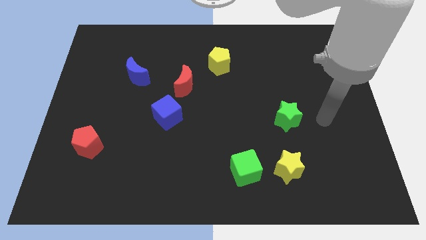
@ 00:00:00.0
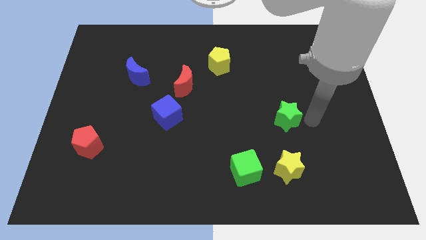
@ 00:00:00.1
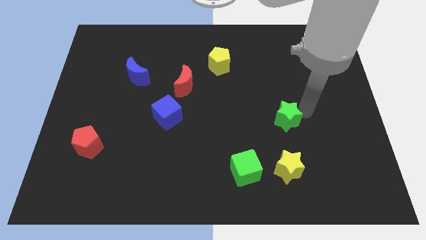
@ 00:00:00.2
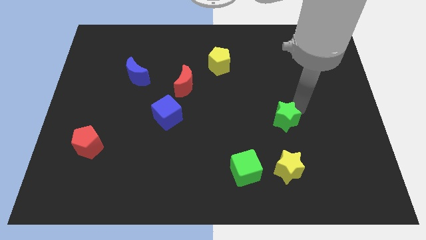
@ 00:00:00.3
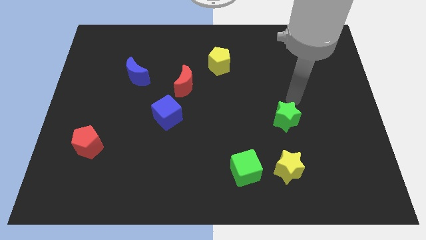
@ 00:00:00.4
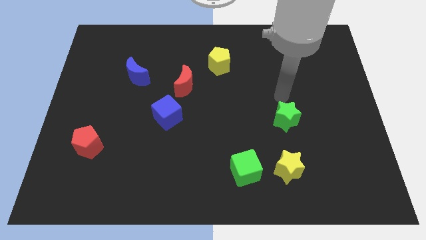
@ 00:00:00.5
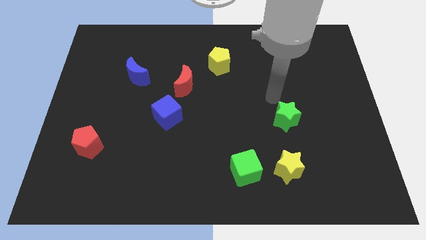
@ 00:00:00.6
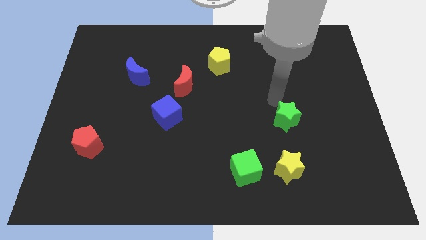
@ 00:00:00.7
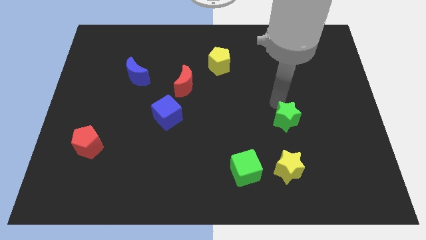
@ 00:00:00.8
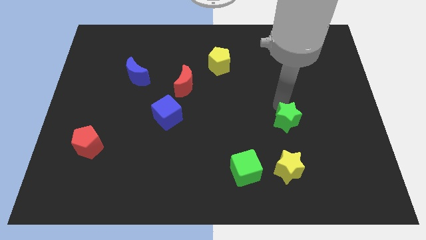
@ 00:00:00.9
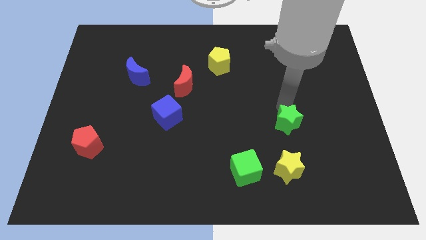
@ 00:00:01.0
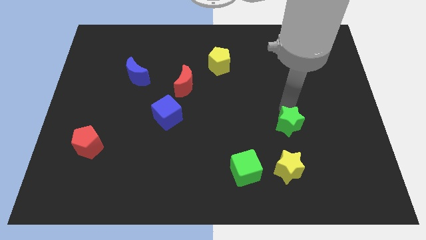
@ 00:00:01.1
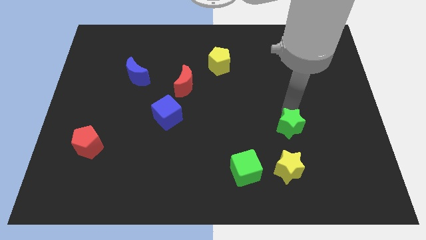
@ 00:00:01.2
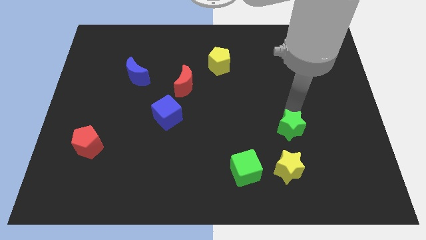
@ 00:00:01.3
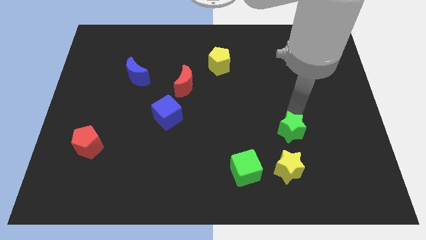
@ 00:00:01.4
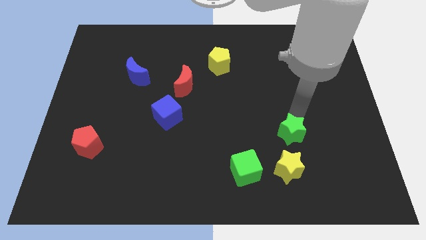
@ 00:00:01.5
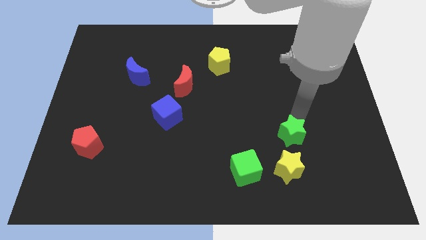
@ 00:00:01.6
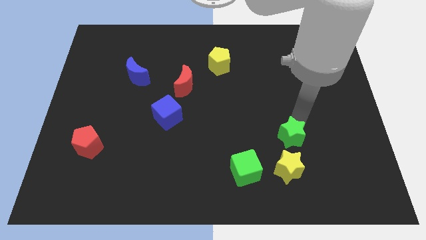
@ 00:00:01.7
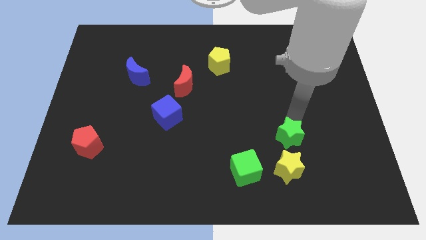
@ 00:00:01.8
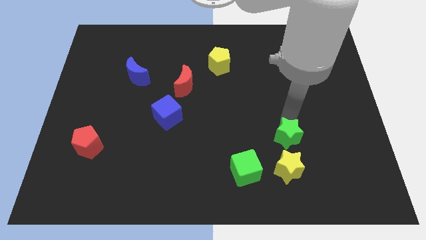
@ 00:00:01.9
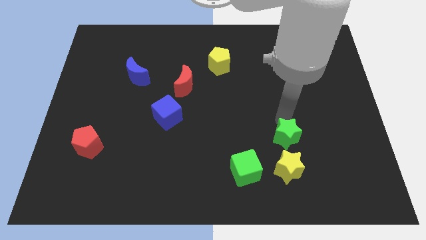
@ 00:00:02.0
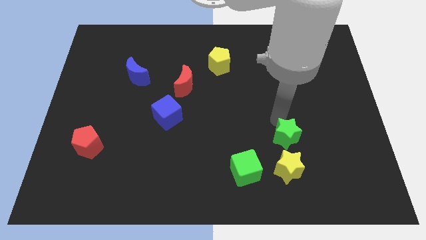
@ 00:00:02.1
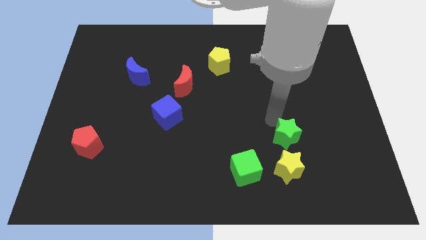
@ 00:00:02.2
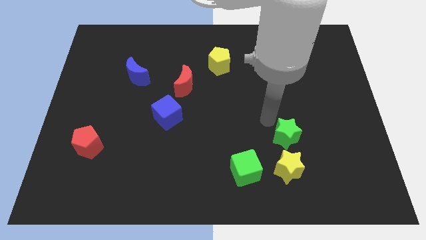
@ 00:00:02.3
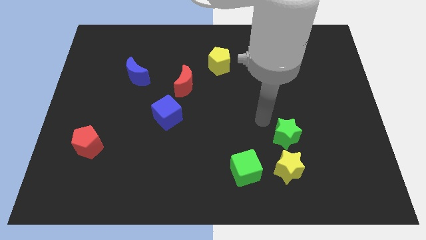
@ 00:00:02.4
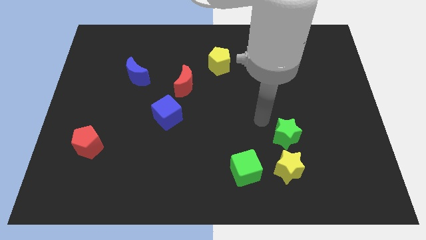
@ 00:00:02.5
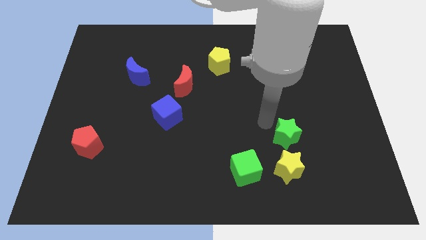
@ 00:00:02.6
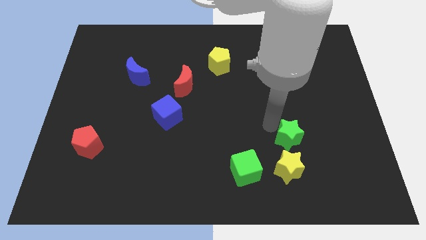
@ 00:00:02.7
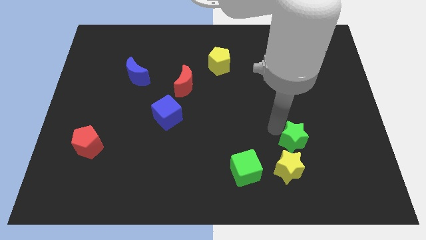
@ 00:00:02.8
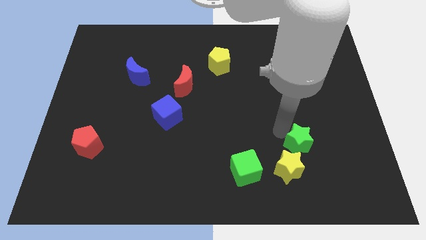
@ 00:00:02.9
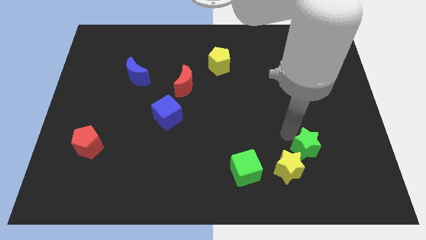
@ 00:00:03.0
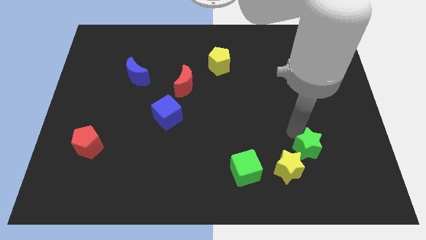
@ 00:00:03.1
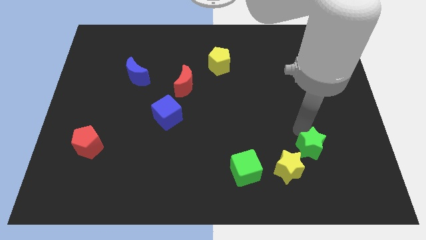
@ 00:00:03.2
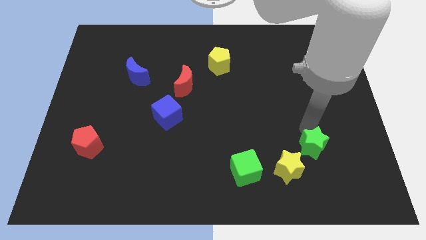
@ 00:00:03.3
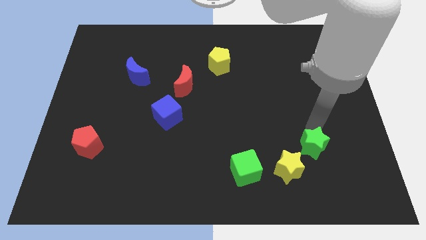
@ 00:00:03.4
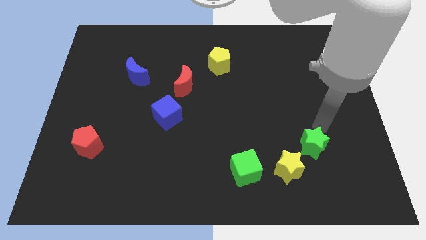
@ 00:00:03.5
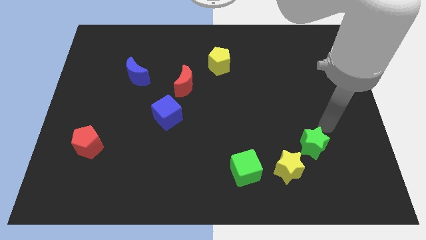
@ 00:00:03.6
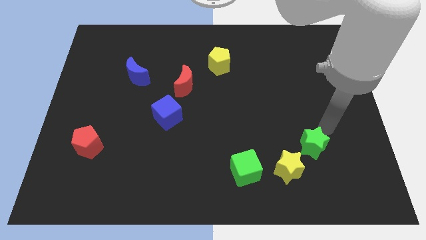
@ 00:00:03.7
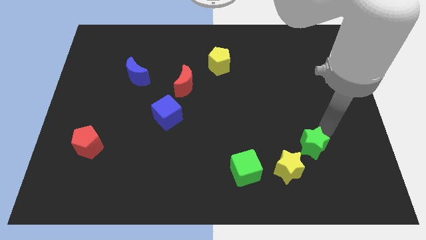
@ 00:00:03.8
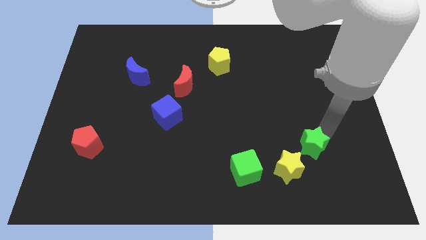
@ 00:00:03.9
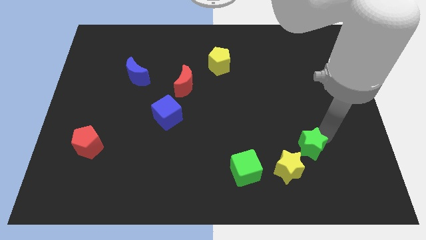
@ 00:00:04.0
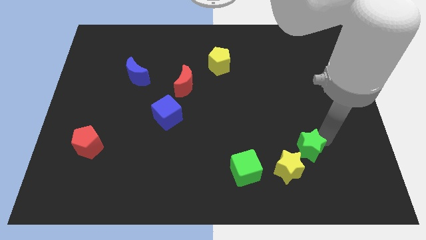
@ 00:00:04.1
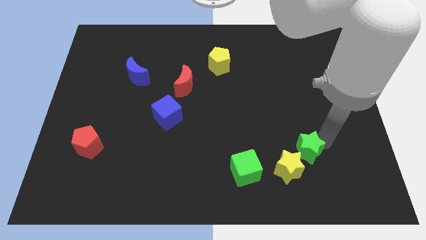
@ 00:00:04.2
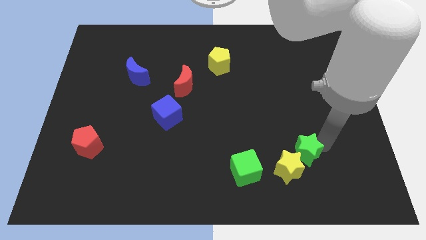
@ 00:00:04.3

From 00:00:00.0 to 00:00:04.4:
move the green star to the right side of the green cube

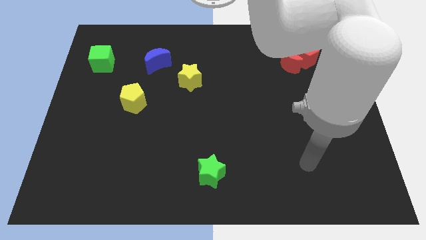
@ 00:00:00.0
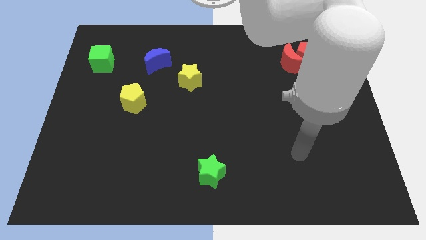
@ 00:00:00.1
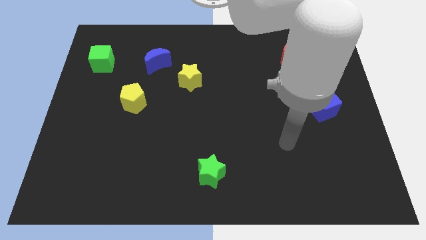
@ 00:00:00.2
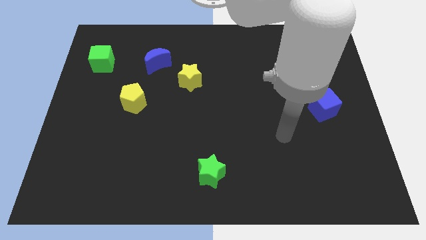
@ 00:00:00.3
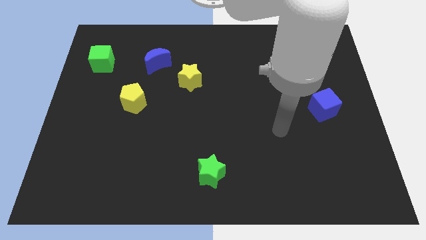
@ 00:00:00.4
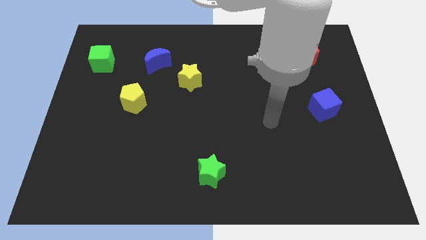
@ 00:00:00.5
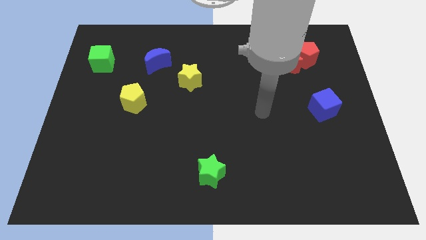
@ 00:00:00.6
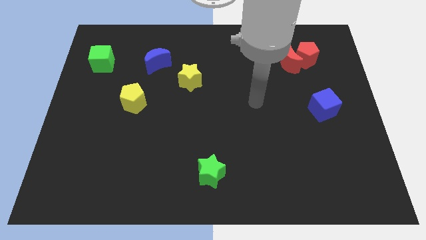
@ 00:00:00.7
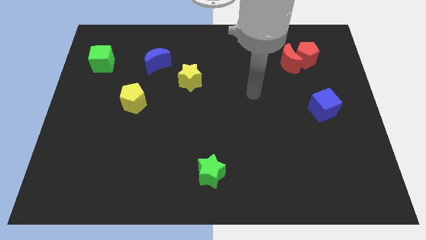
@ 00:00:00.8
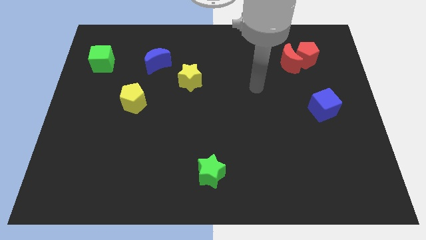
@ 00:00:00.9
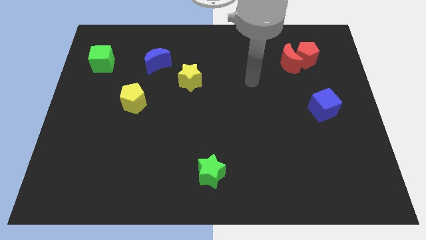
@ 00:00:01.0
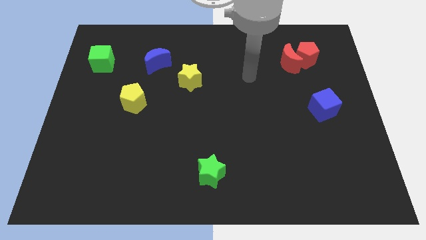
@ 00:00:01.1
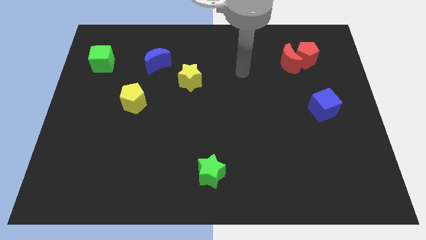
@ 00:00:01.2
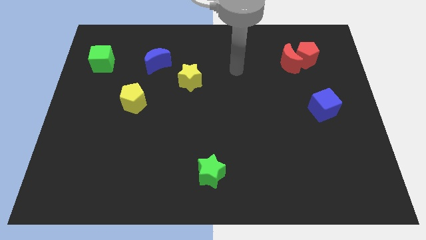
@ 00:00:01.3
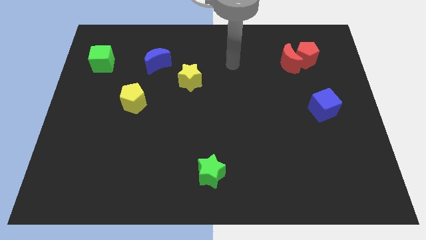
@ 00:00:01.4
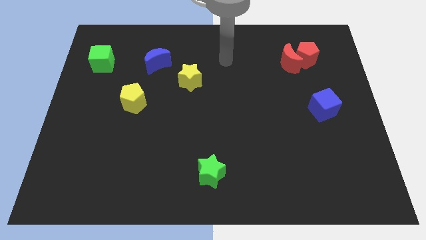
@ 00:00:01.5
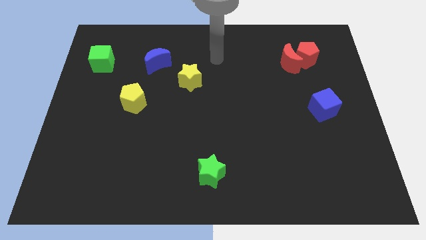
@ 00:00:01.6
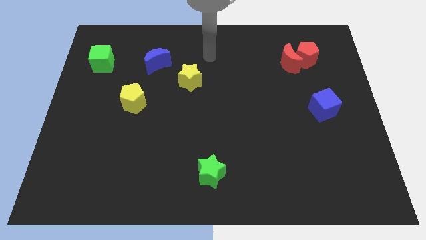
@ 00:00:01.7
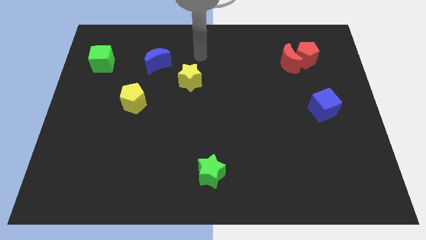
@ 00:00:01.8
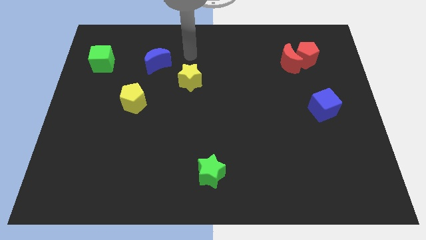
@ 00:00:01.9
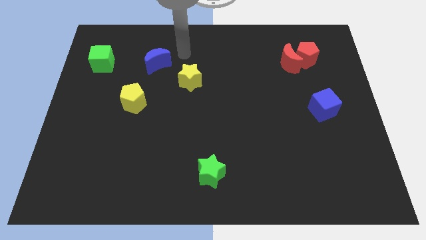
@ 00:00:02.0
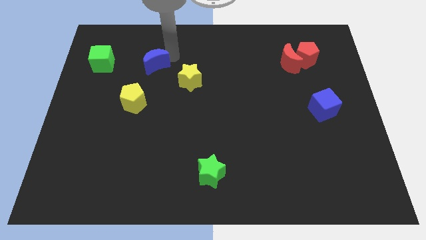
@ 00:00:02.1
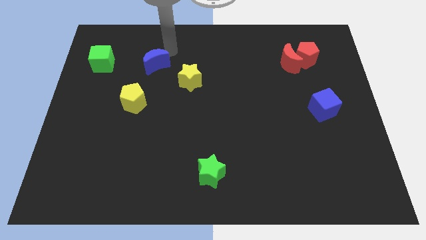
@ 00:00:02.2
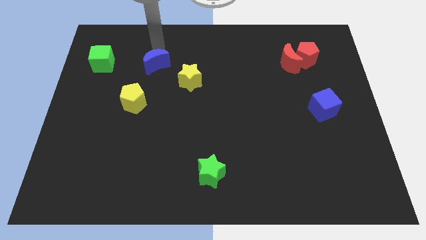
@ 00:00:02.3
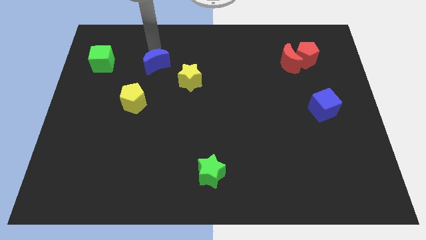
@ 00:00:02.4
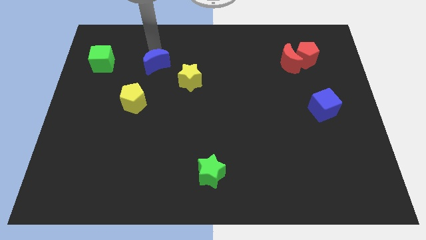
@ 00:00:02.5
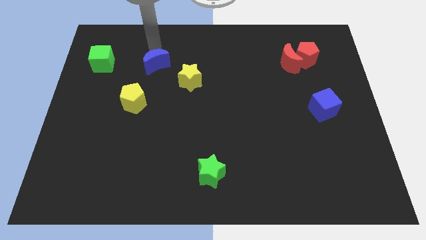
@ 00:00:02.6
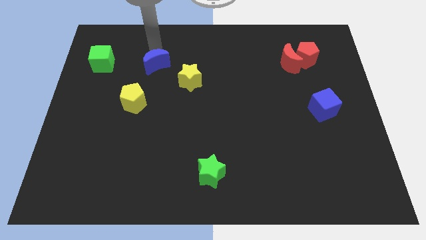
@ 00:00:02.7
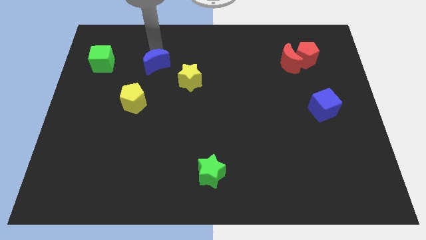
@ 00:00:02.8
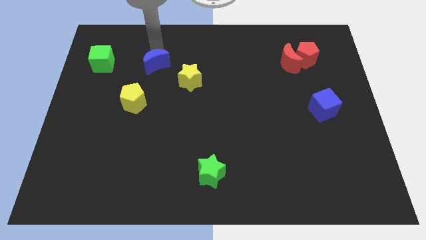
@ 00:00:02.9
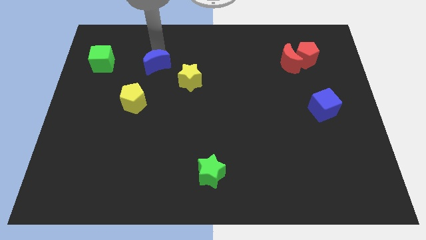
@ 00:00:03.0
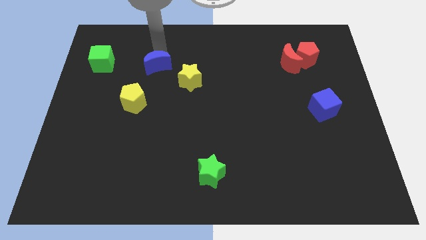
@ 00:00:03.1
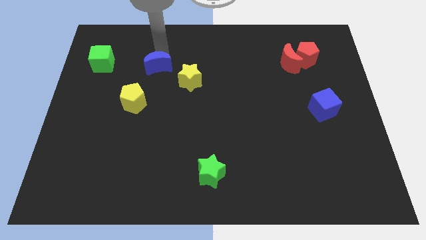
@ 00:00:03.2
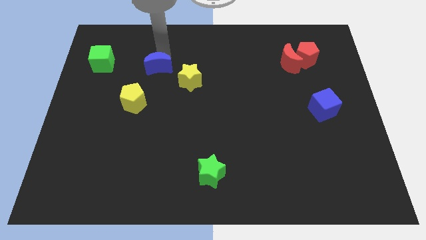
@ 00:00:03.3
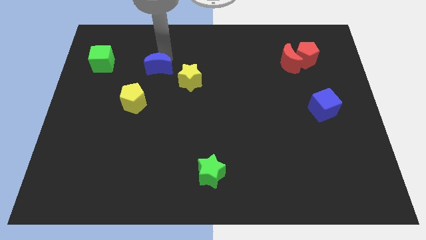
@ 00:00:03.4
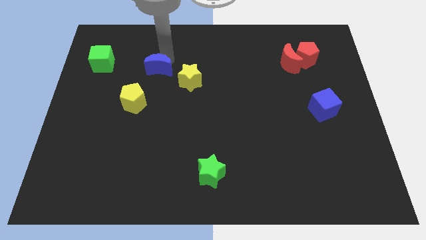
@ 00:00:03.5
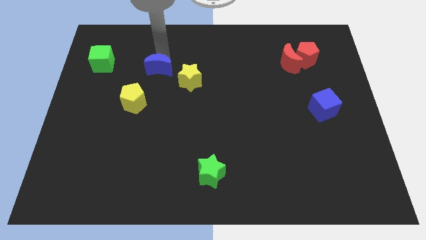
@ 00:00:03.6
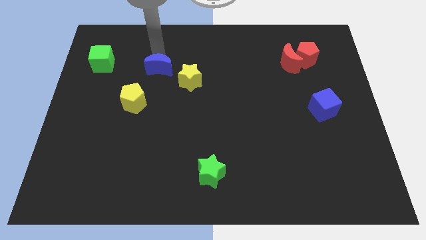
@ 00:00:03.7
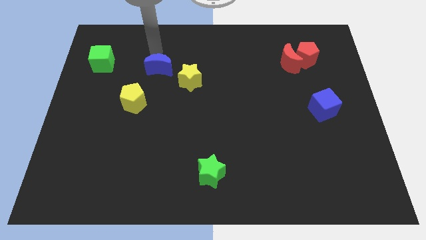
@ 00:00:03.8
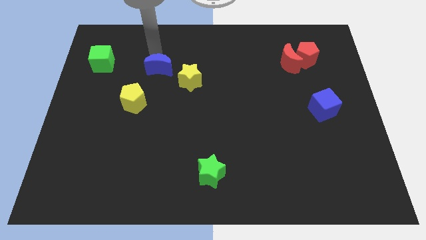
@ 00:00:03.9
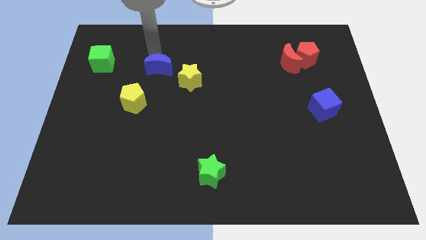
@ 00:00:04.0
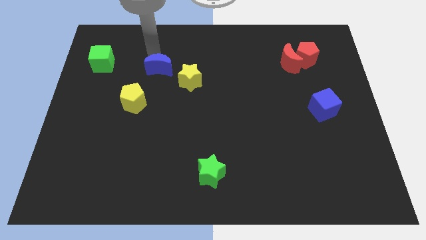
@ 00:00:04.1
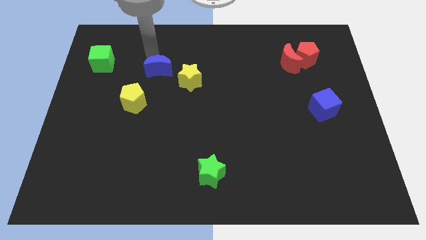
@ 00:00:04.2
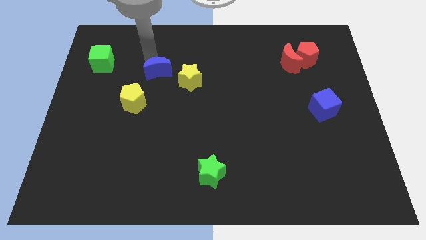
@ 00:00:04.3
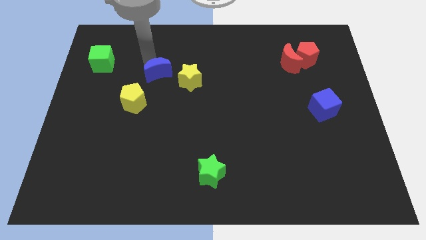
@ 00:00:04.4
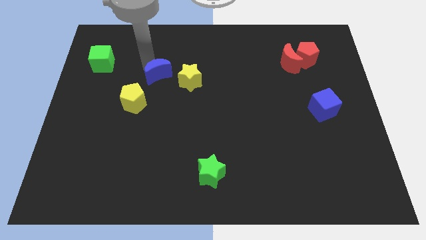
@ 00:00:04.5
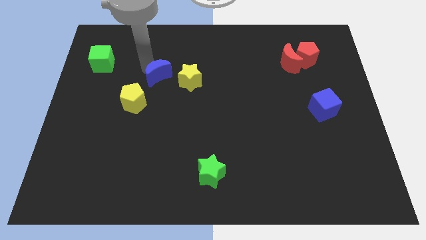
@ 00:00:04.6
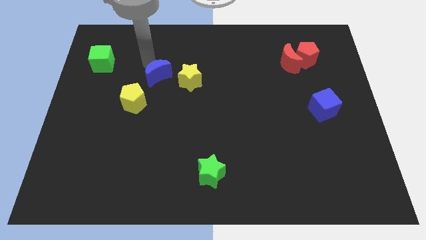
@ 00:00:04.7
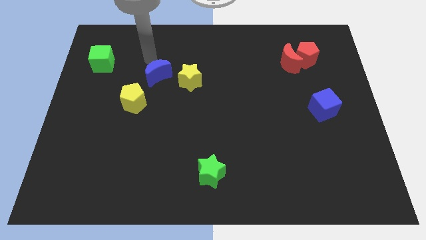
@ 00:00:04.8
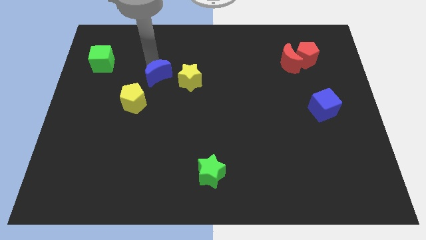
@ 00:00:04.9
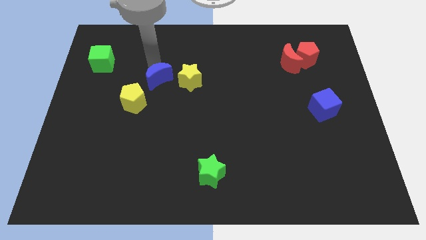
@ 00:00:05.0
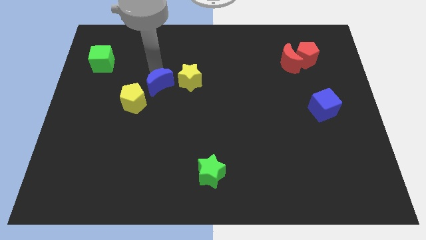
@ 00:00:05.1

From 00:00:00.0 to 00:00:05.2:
push the blue moon to the bottom left of the yellow star
